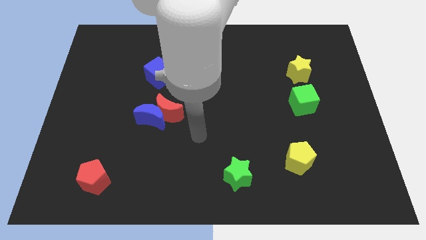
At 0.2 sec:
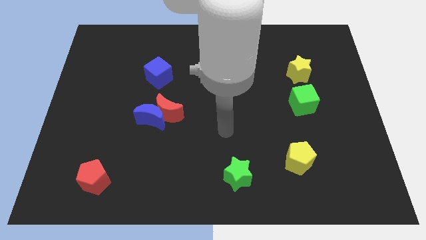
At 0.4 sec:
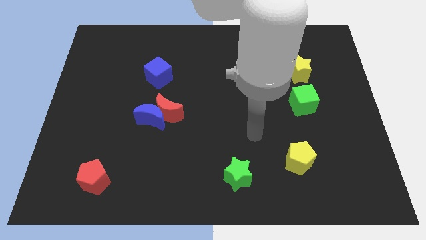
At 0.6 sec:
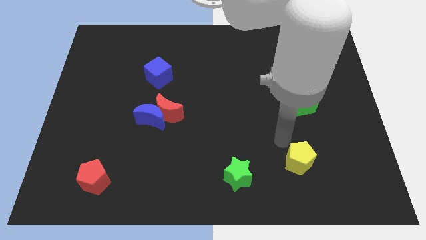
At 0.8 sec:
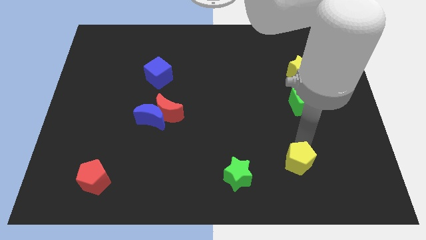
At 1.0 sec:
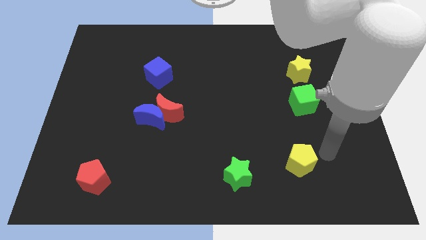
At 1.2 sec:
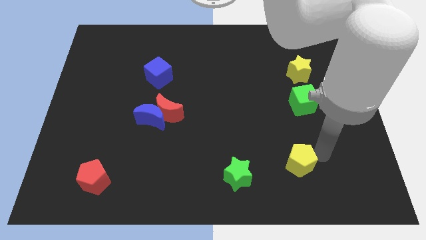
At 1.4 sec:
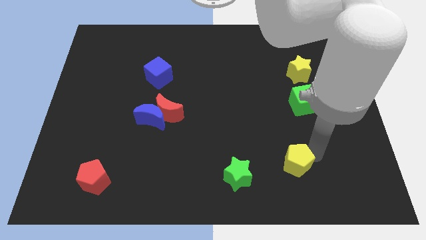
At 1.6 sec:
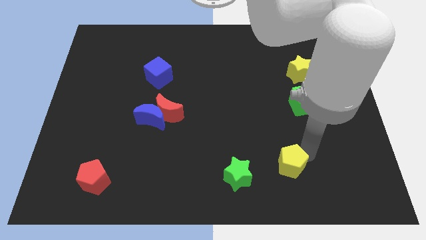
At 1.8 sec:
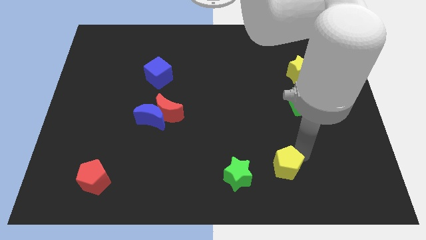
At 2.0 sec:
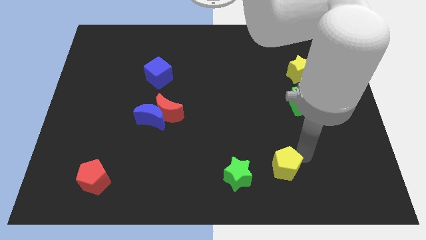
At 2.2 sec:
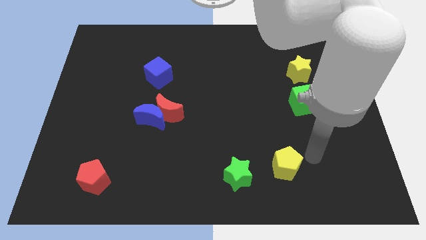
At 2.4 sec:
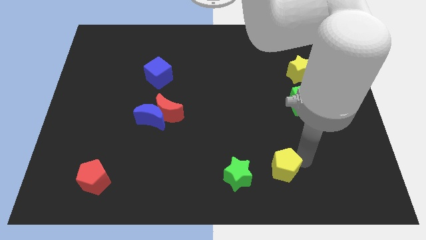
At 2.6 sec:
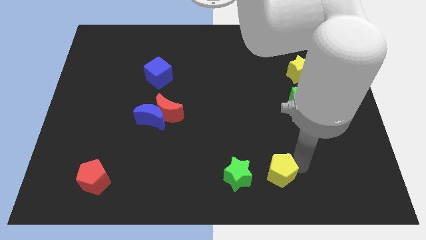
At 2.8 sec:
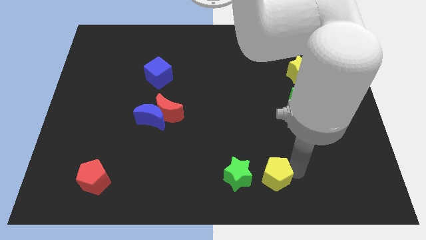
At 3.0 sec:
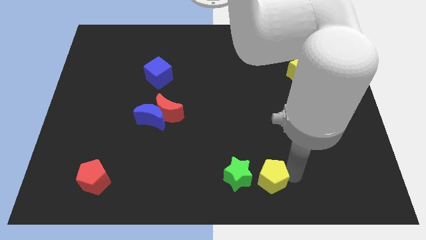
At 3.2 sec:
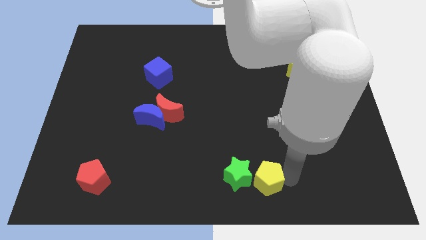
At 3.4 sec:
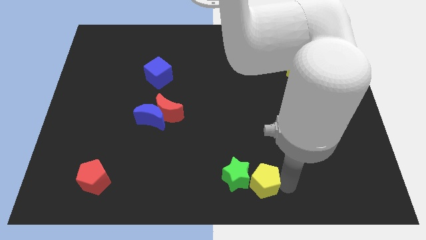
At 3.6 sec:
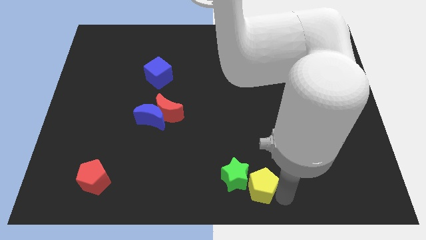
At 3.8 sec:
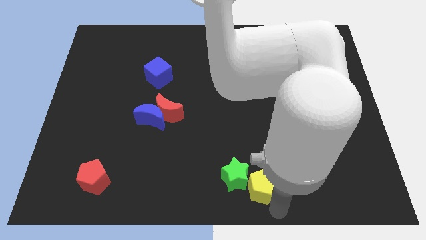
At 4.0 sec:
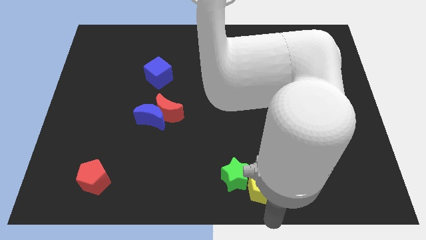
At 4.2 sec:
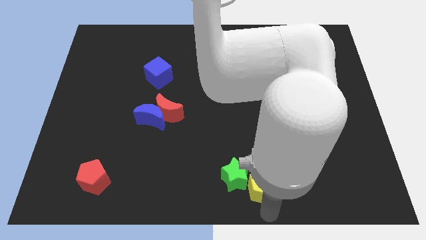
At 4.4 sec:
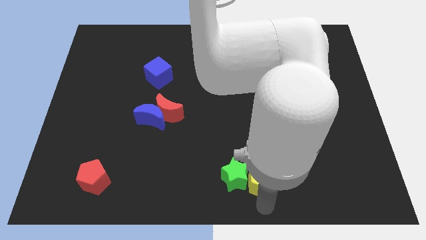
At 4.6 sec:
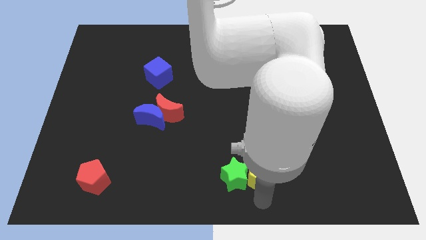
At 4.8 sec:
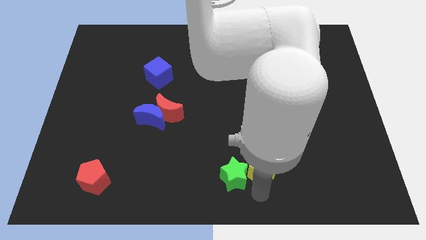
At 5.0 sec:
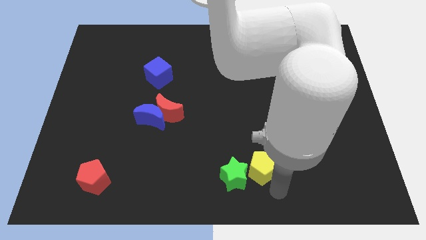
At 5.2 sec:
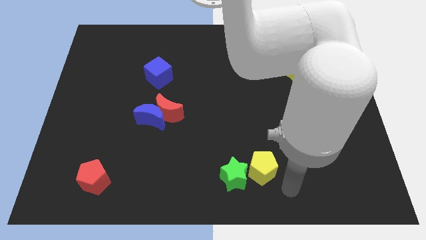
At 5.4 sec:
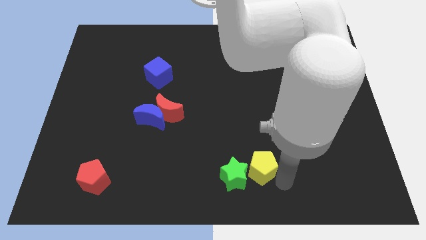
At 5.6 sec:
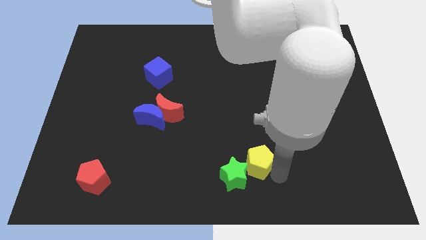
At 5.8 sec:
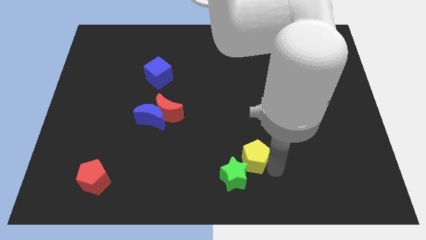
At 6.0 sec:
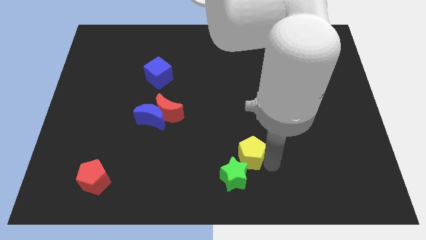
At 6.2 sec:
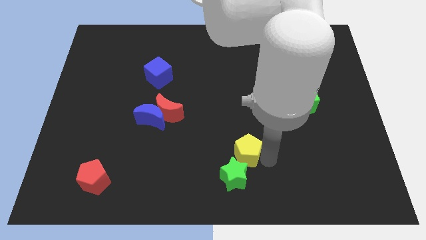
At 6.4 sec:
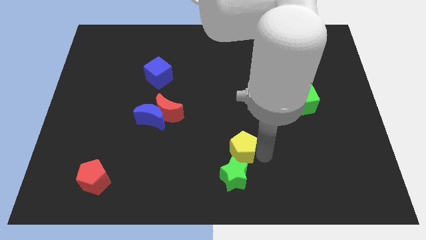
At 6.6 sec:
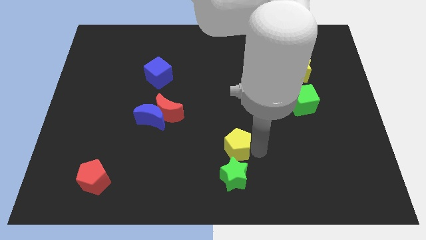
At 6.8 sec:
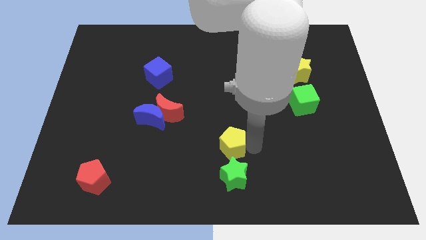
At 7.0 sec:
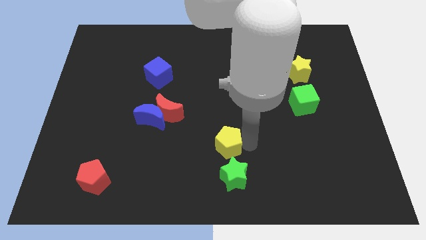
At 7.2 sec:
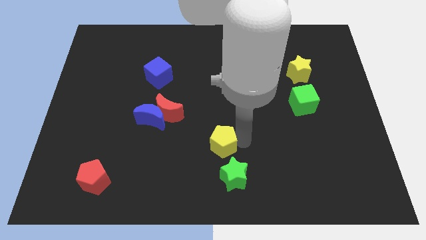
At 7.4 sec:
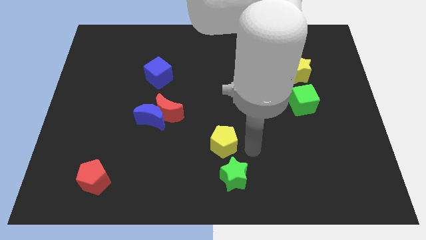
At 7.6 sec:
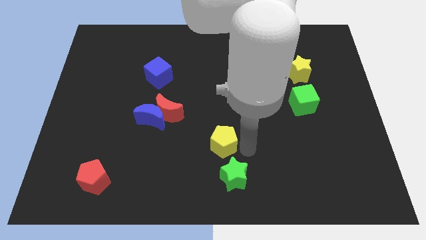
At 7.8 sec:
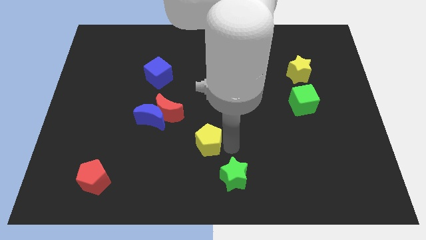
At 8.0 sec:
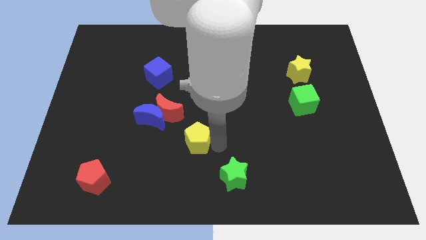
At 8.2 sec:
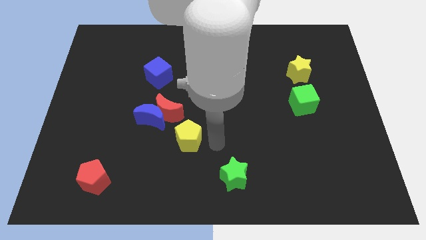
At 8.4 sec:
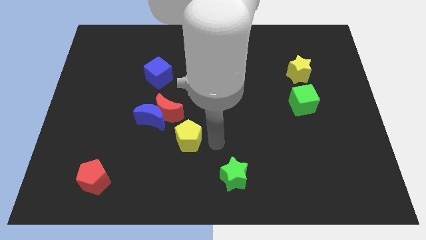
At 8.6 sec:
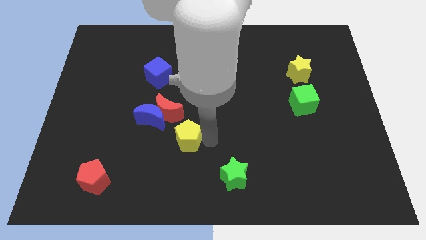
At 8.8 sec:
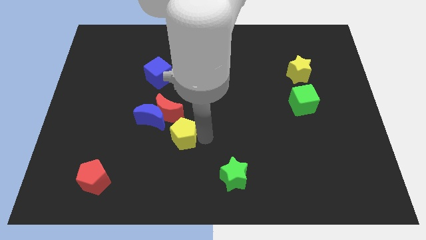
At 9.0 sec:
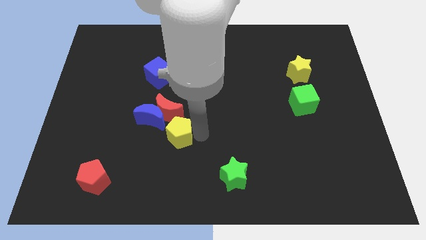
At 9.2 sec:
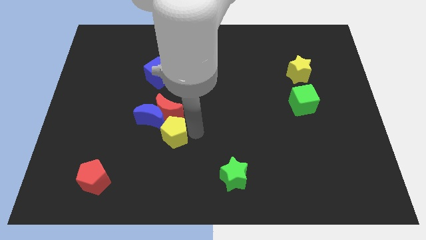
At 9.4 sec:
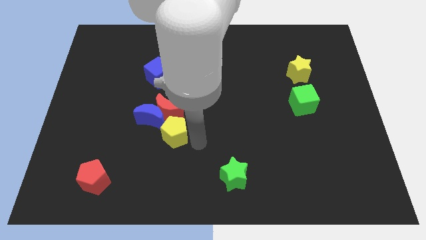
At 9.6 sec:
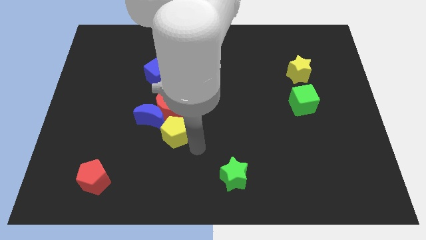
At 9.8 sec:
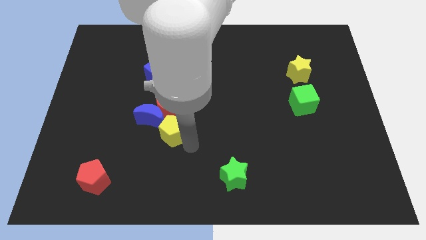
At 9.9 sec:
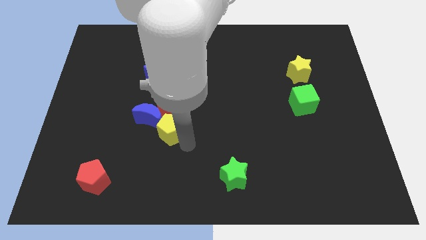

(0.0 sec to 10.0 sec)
push the yellow pentagon close to the blue moon

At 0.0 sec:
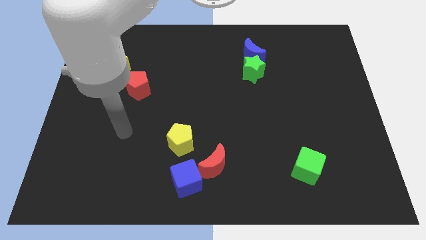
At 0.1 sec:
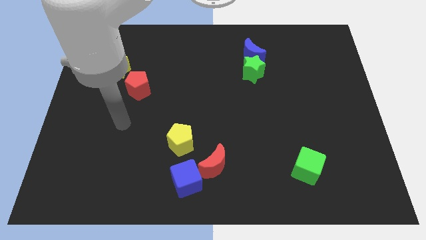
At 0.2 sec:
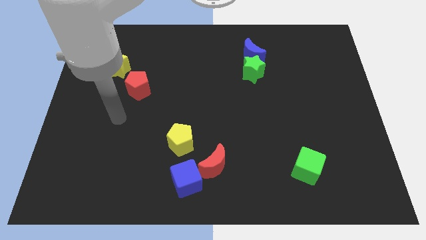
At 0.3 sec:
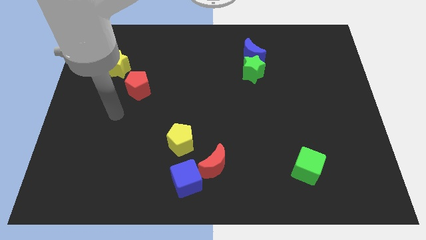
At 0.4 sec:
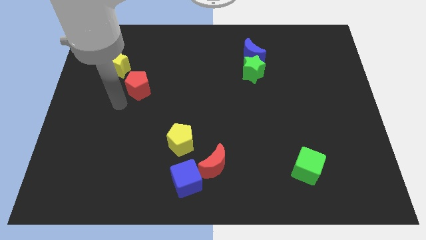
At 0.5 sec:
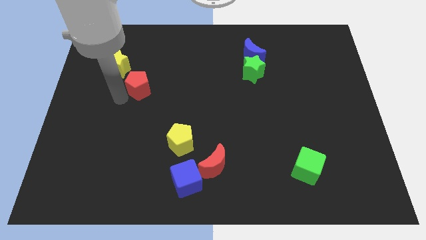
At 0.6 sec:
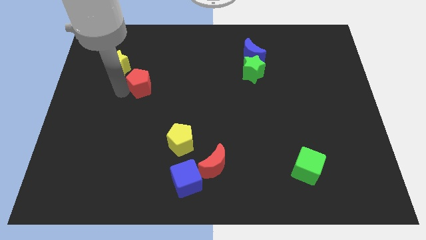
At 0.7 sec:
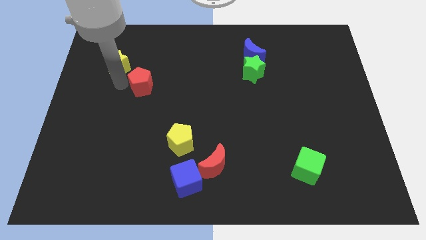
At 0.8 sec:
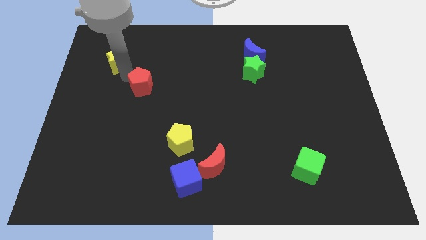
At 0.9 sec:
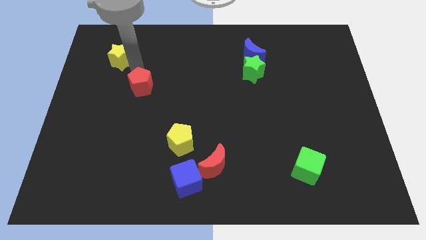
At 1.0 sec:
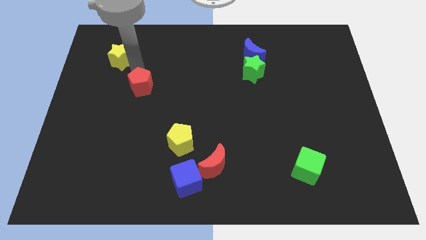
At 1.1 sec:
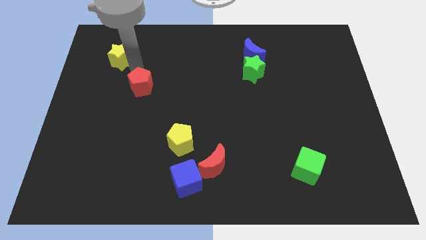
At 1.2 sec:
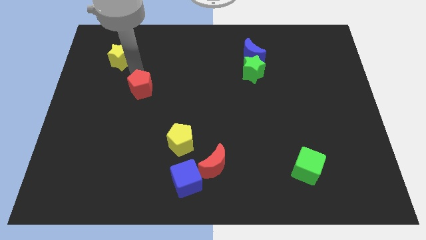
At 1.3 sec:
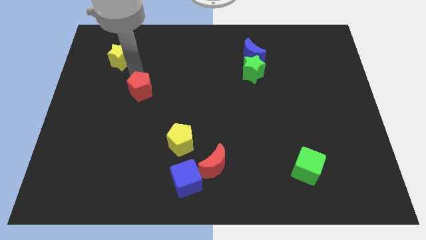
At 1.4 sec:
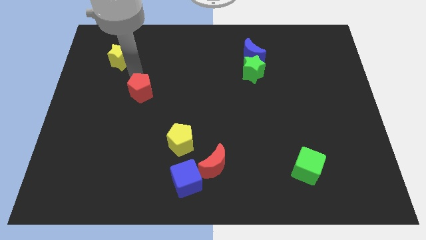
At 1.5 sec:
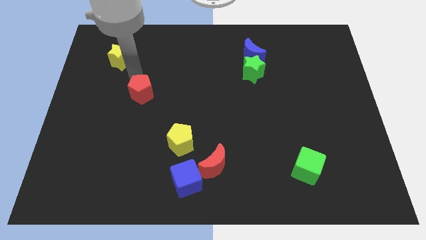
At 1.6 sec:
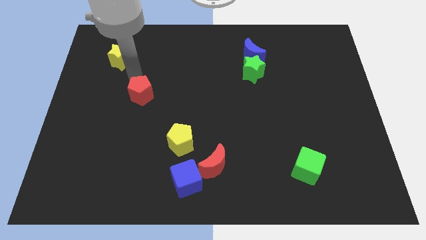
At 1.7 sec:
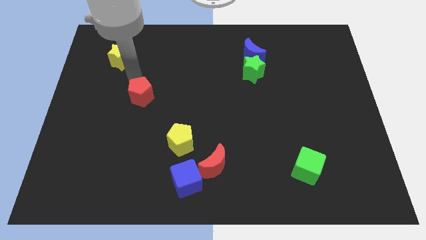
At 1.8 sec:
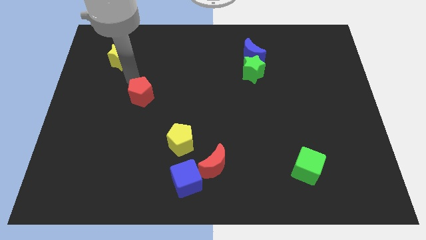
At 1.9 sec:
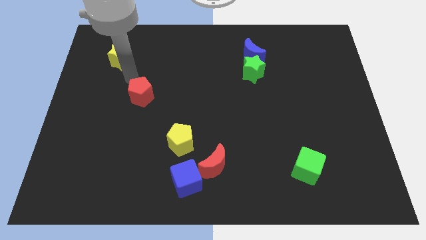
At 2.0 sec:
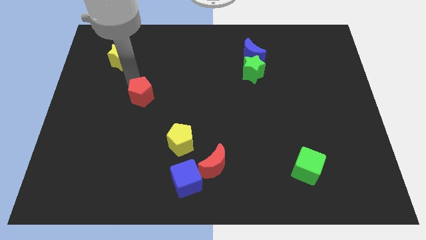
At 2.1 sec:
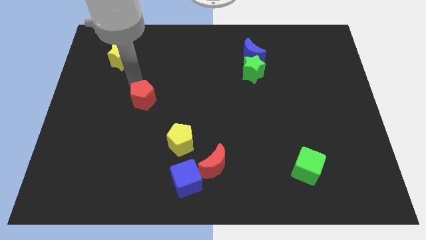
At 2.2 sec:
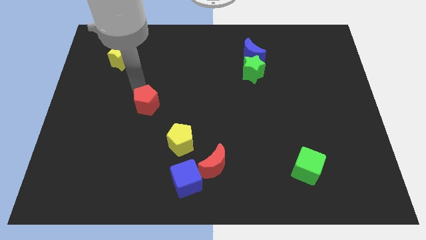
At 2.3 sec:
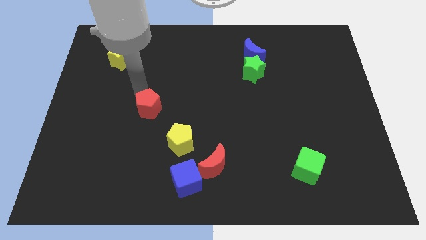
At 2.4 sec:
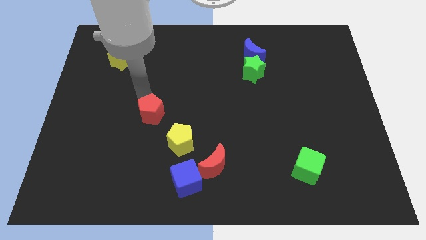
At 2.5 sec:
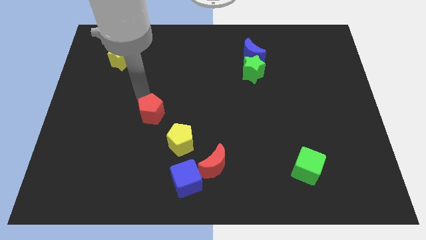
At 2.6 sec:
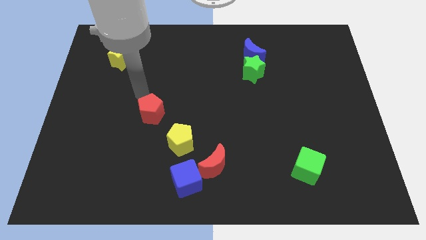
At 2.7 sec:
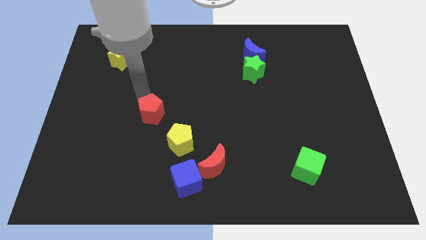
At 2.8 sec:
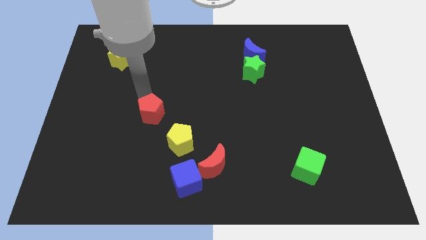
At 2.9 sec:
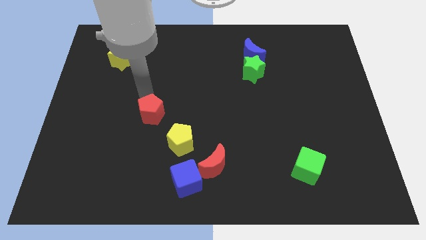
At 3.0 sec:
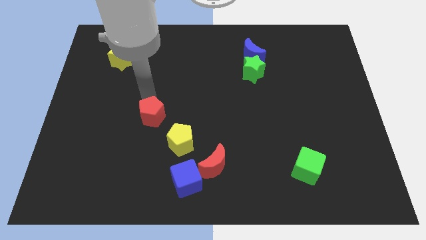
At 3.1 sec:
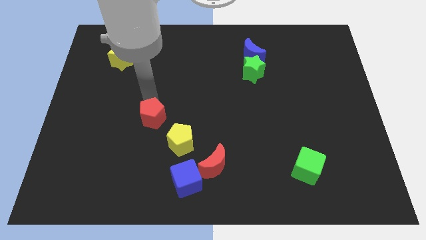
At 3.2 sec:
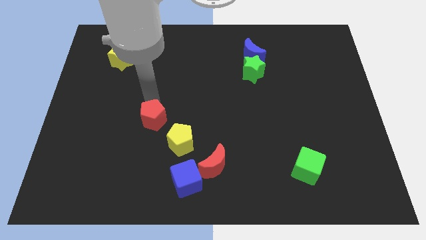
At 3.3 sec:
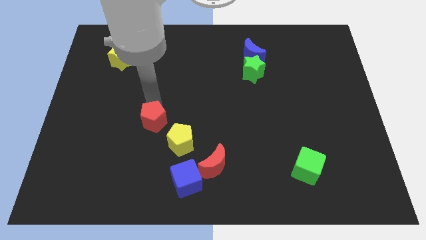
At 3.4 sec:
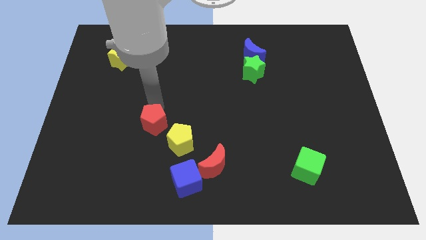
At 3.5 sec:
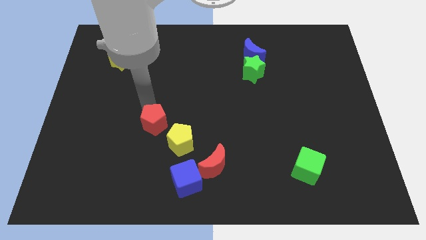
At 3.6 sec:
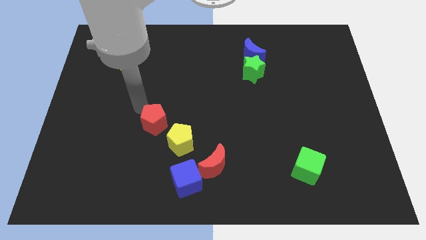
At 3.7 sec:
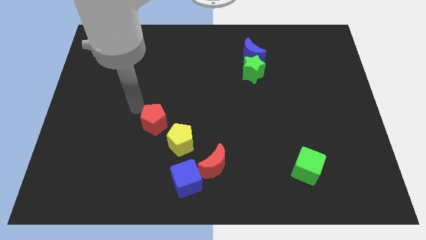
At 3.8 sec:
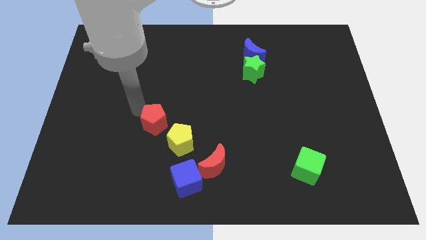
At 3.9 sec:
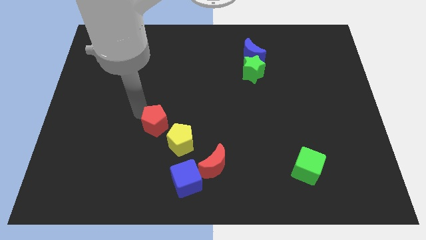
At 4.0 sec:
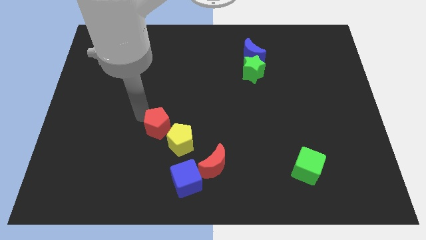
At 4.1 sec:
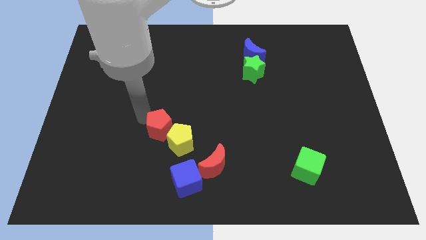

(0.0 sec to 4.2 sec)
move the red pentagon close to the yellow pentagon
